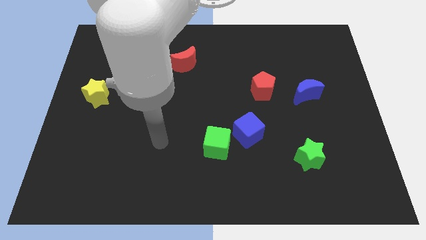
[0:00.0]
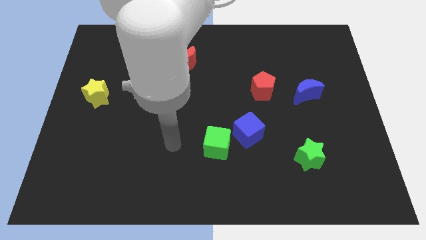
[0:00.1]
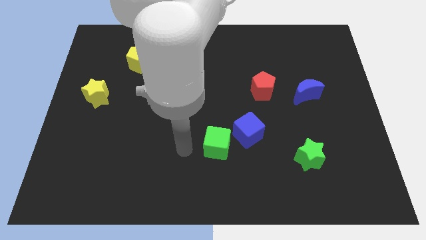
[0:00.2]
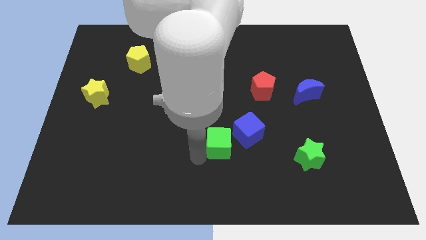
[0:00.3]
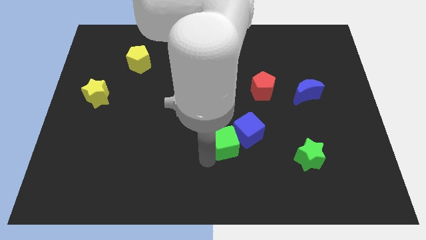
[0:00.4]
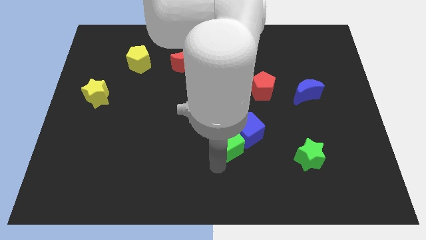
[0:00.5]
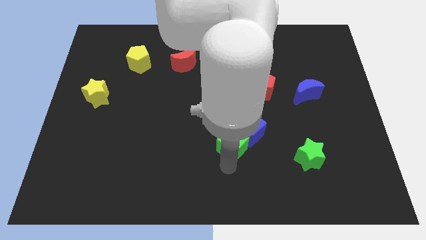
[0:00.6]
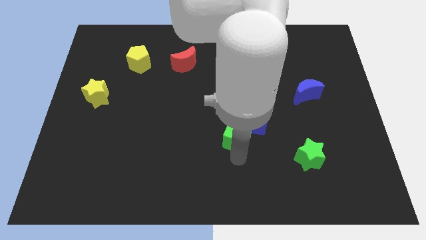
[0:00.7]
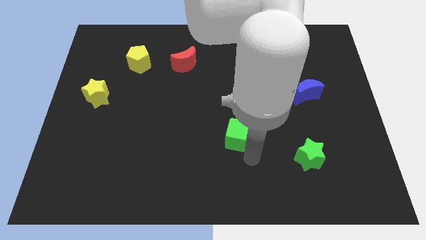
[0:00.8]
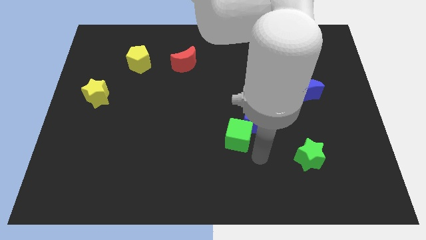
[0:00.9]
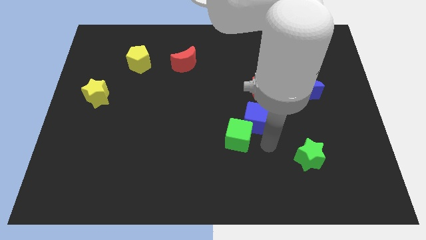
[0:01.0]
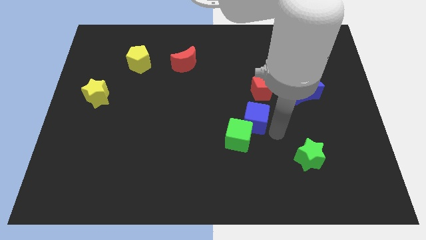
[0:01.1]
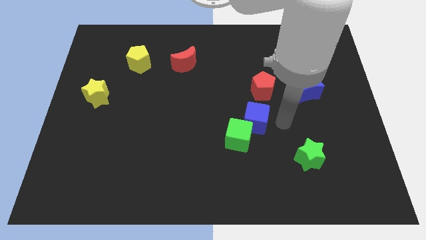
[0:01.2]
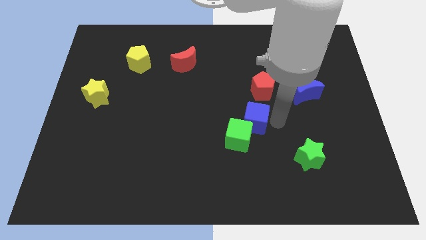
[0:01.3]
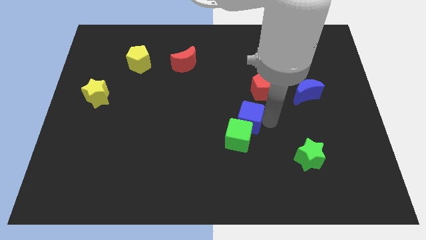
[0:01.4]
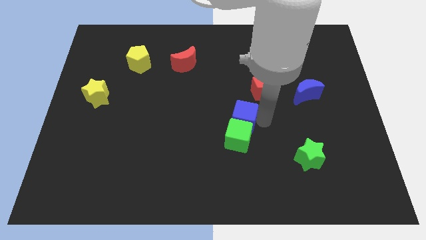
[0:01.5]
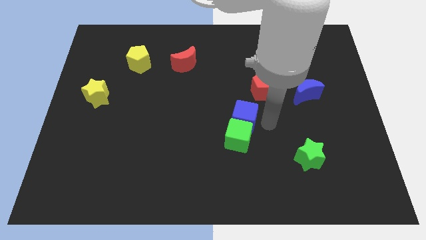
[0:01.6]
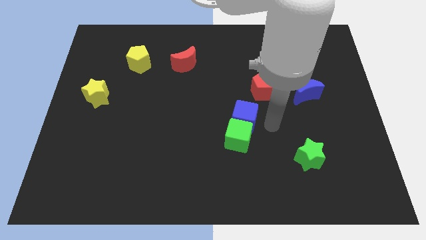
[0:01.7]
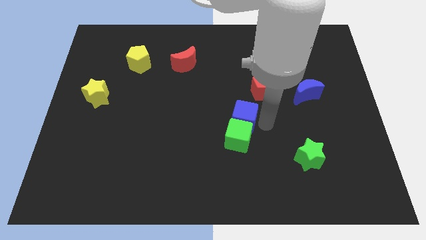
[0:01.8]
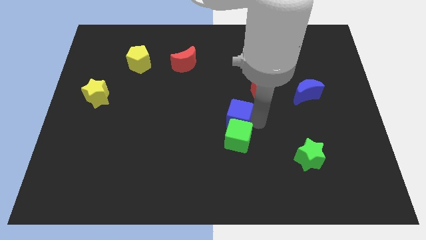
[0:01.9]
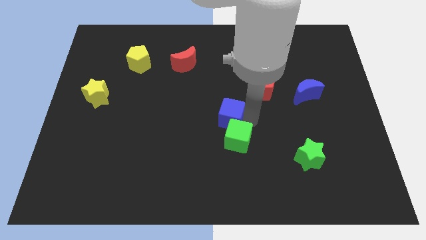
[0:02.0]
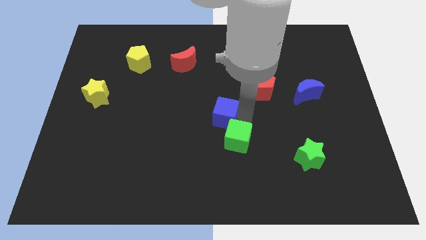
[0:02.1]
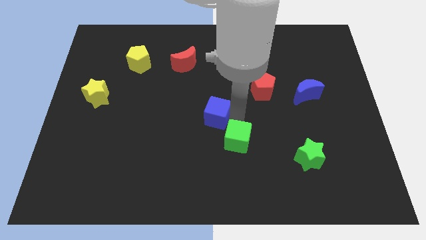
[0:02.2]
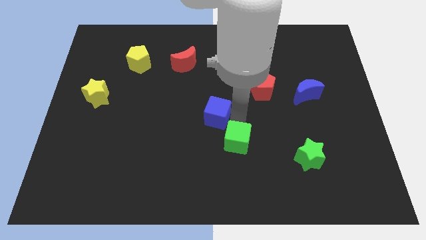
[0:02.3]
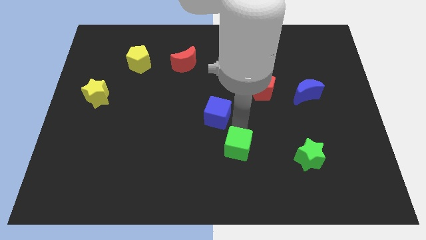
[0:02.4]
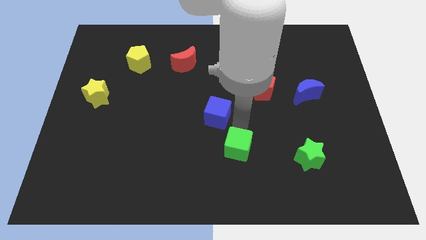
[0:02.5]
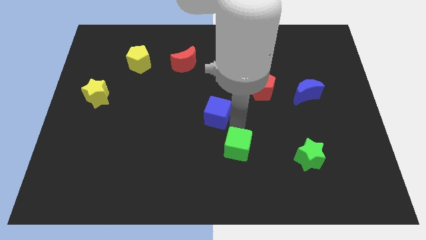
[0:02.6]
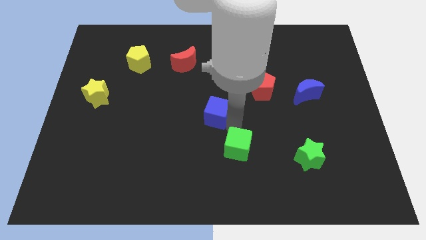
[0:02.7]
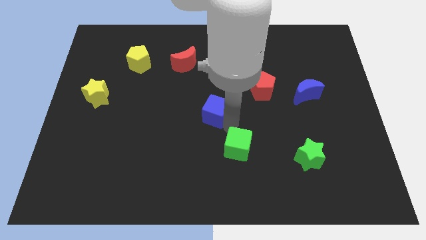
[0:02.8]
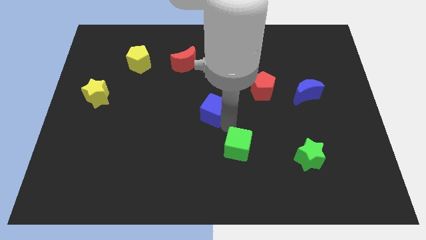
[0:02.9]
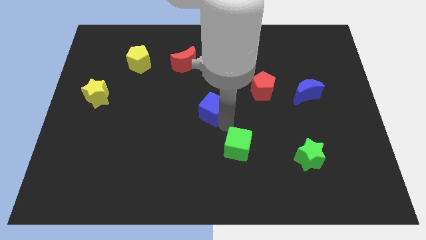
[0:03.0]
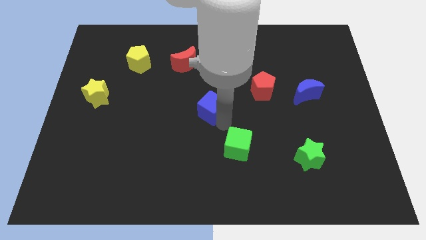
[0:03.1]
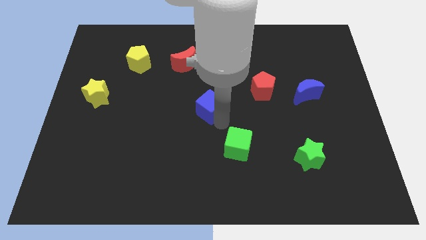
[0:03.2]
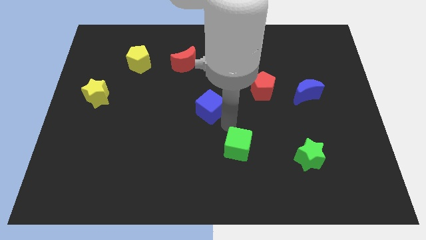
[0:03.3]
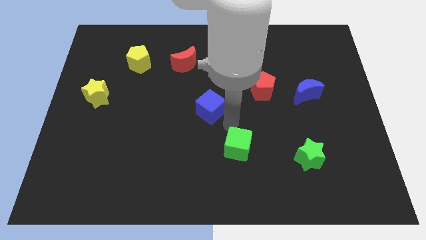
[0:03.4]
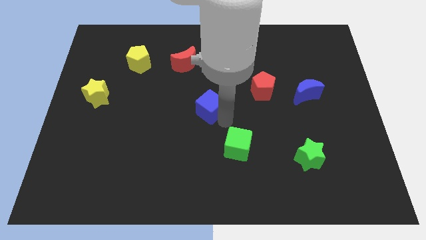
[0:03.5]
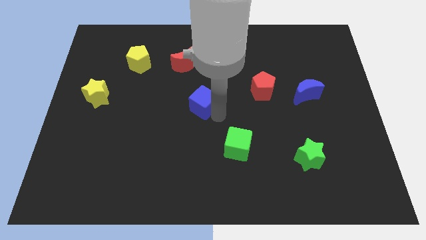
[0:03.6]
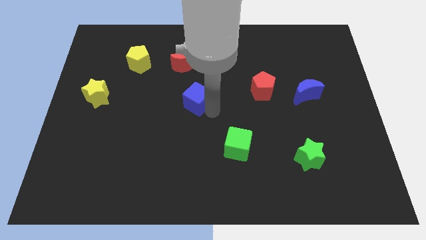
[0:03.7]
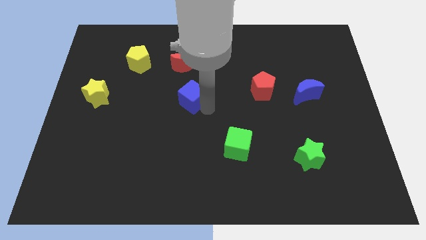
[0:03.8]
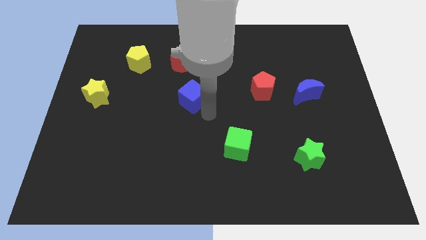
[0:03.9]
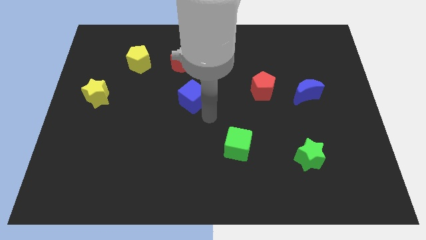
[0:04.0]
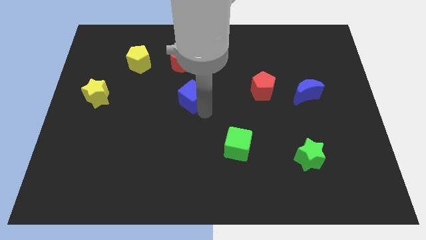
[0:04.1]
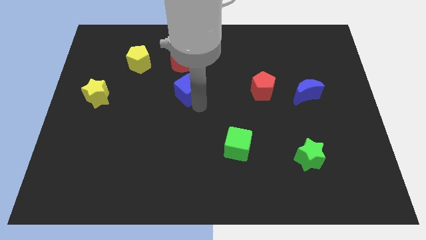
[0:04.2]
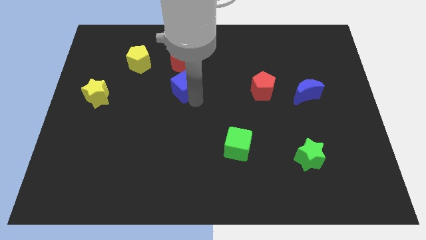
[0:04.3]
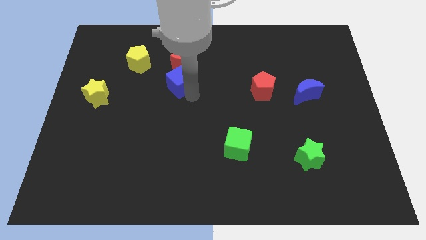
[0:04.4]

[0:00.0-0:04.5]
slide the blue cube diagonally up and to the left

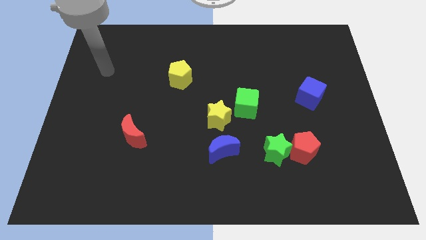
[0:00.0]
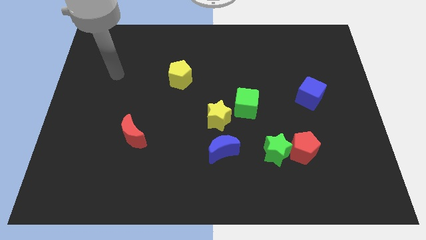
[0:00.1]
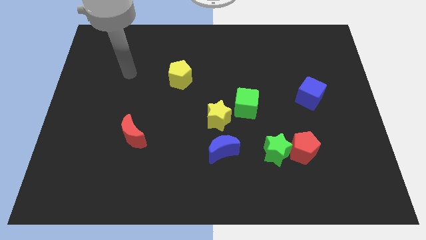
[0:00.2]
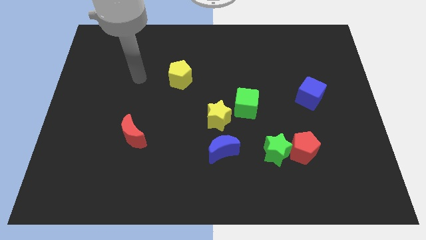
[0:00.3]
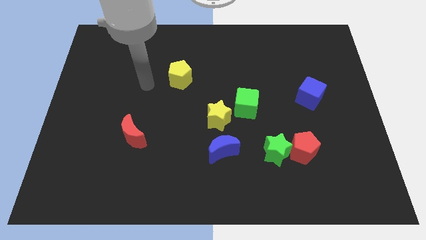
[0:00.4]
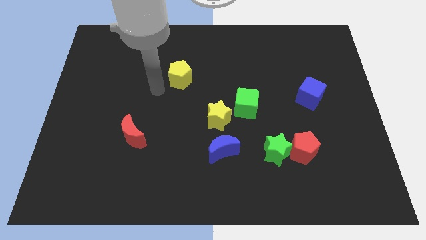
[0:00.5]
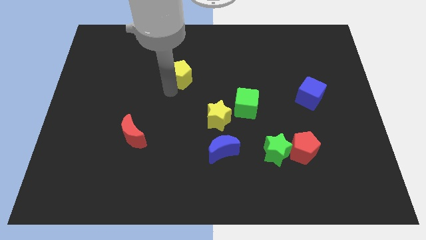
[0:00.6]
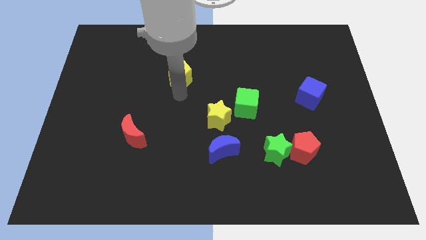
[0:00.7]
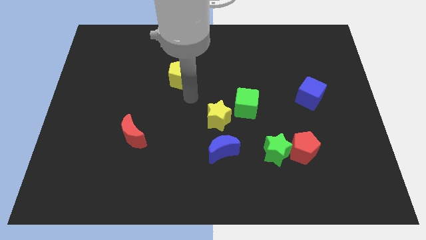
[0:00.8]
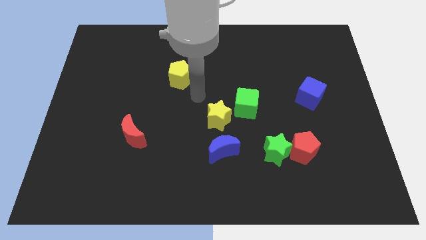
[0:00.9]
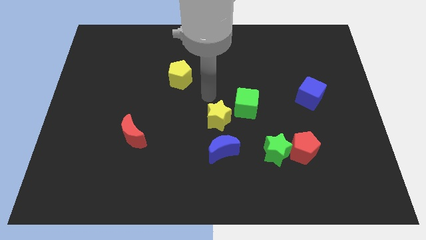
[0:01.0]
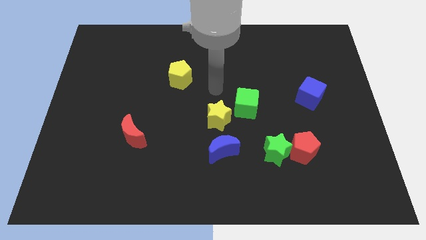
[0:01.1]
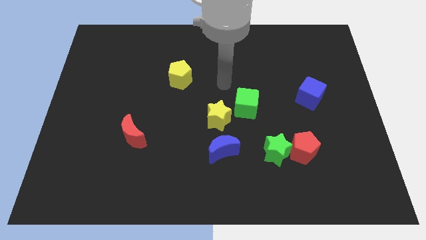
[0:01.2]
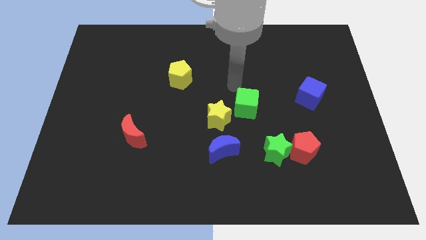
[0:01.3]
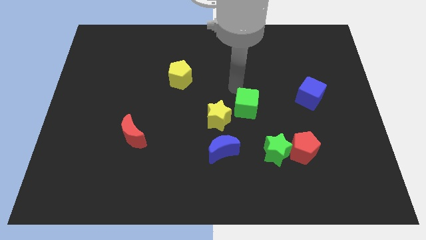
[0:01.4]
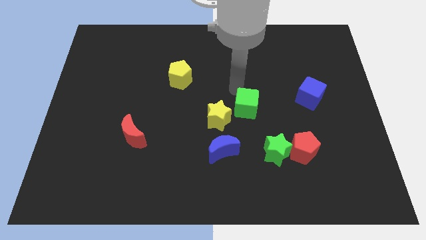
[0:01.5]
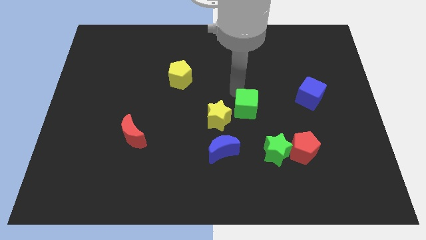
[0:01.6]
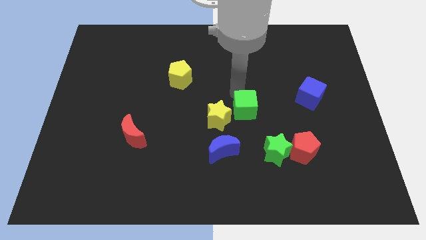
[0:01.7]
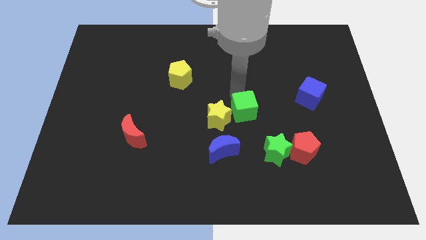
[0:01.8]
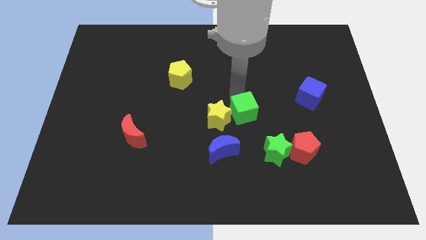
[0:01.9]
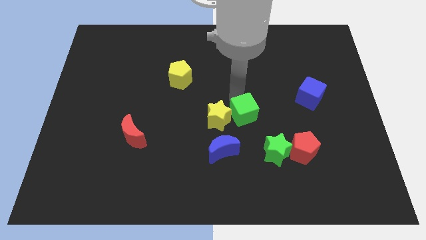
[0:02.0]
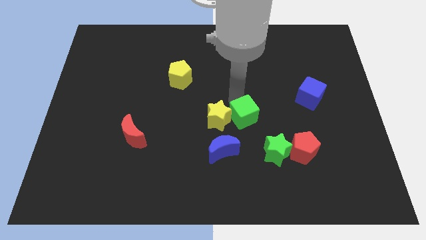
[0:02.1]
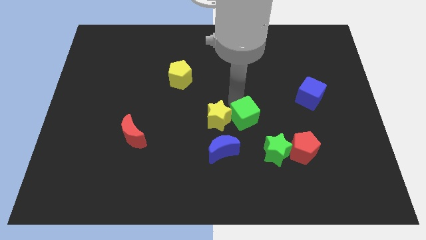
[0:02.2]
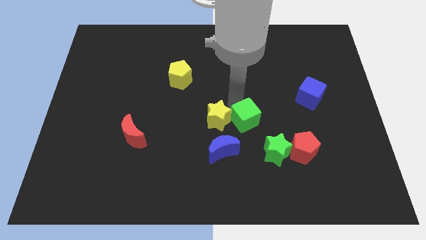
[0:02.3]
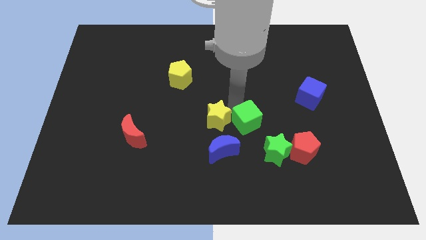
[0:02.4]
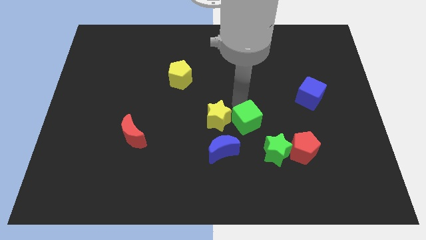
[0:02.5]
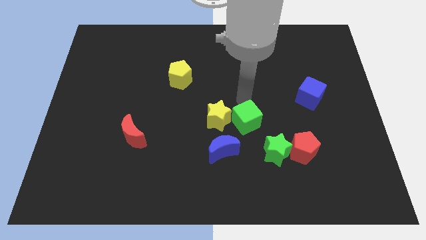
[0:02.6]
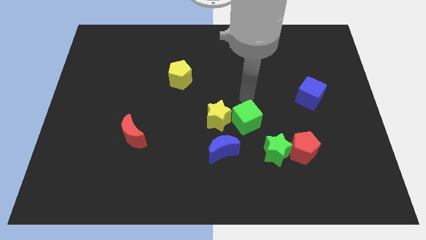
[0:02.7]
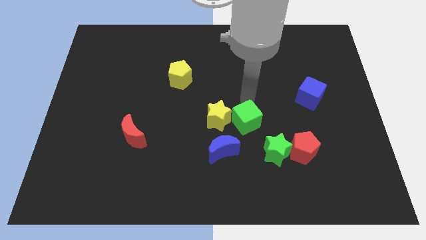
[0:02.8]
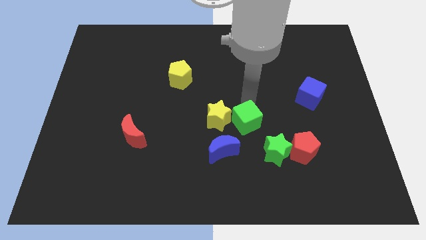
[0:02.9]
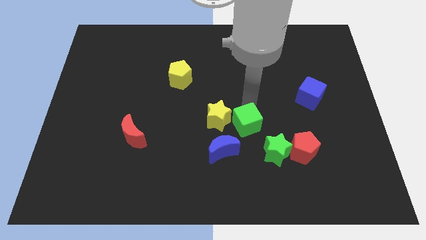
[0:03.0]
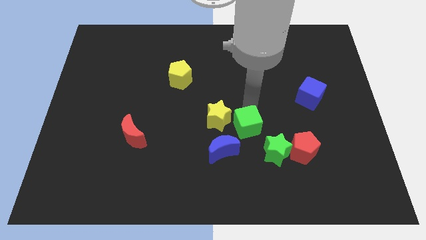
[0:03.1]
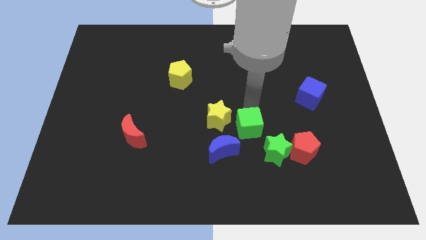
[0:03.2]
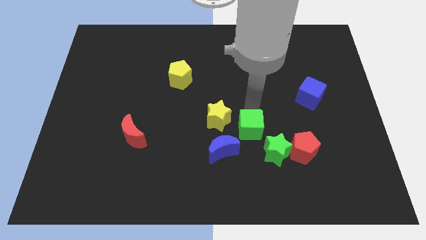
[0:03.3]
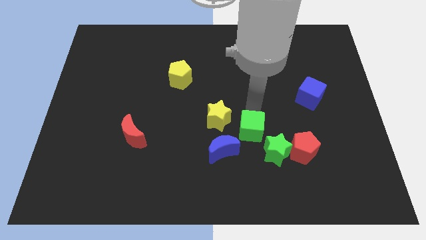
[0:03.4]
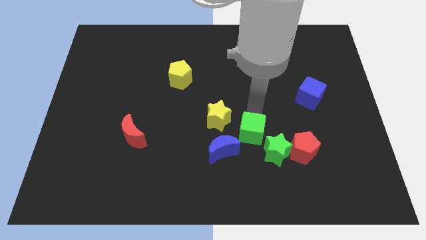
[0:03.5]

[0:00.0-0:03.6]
slide the green cube down a bit
